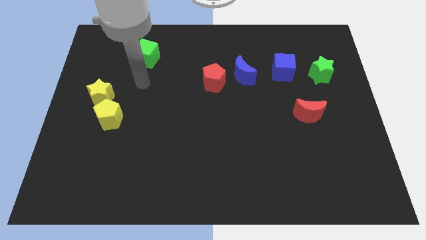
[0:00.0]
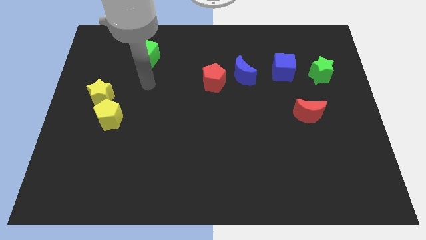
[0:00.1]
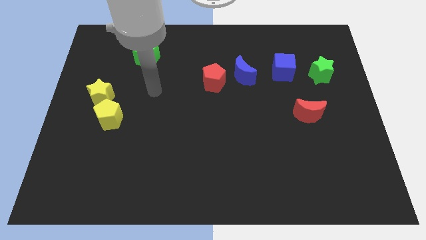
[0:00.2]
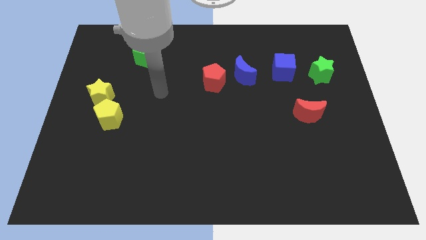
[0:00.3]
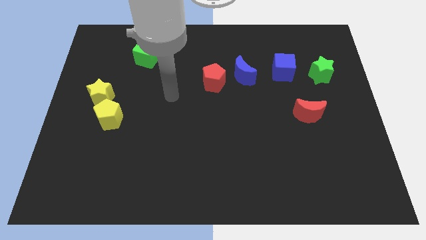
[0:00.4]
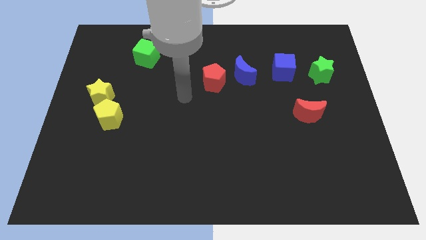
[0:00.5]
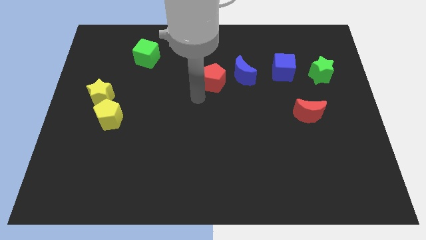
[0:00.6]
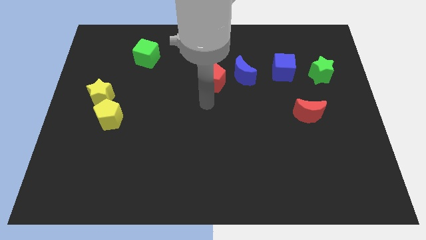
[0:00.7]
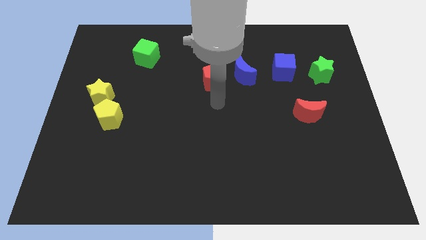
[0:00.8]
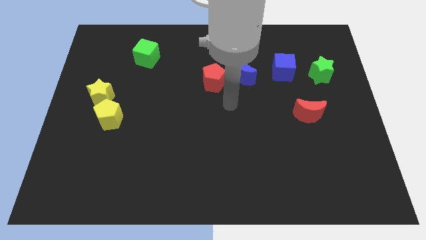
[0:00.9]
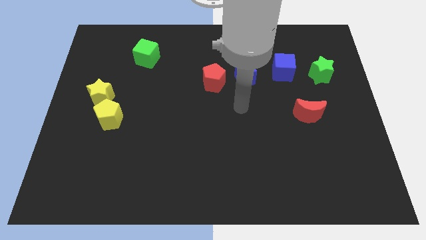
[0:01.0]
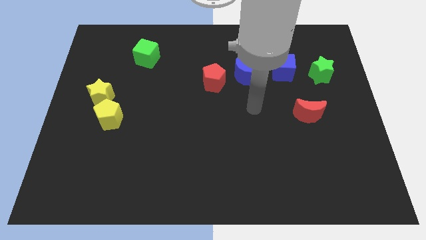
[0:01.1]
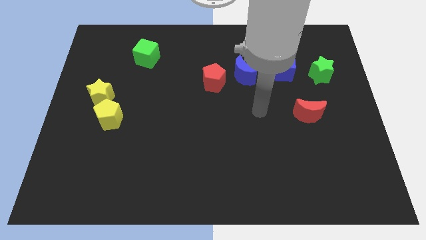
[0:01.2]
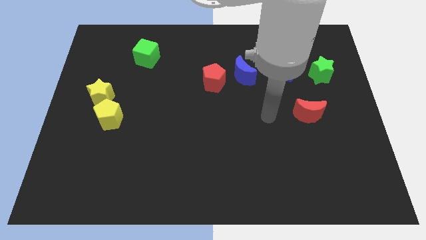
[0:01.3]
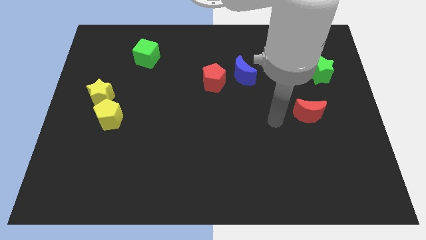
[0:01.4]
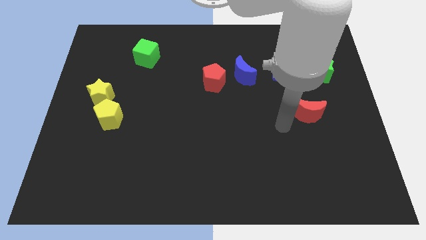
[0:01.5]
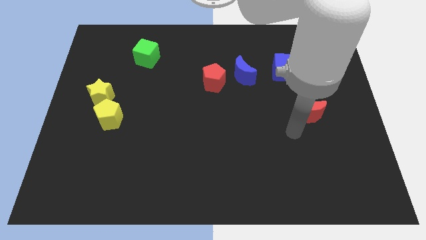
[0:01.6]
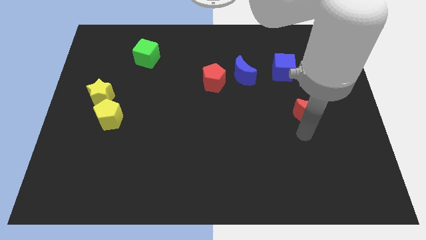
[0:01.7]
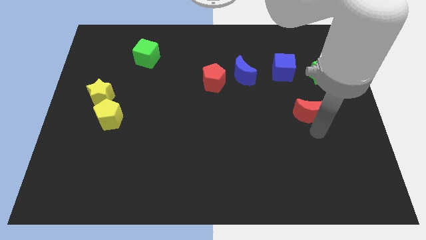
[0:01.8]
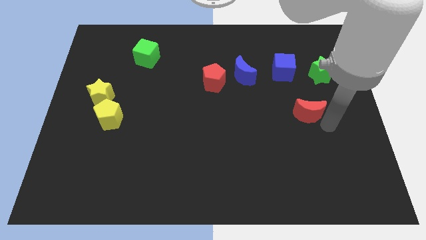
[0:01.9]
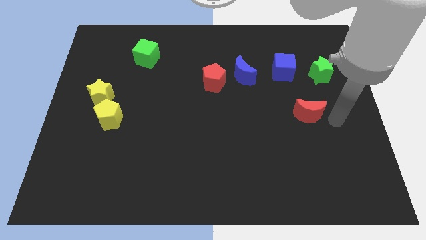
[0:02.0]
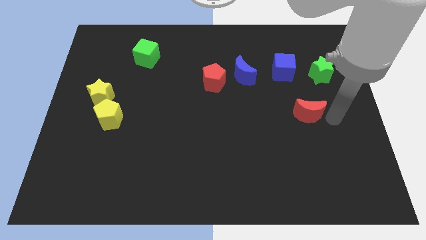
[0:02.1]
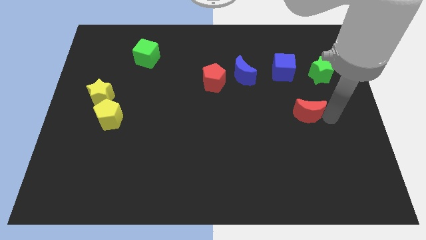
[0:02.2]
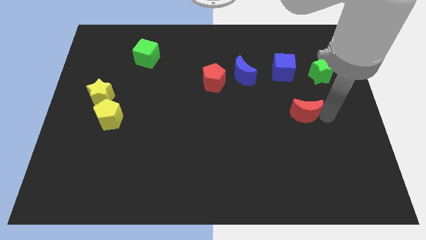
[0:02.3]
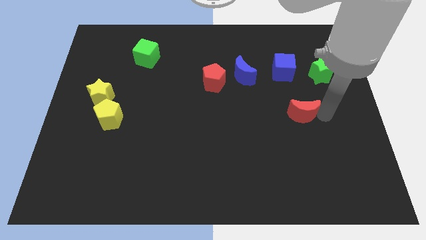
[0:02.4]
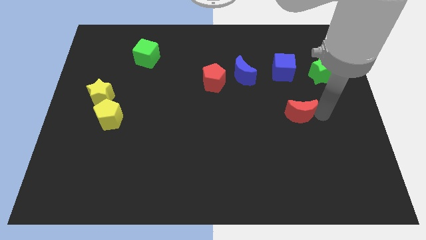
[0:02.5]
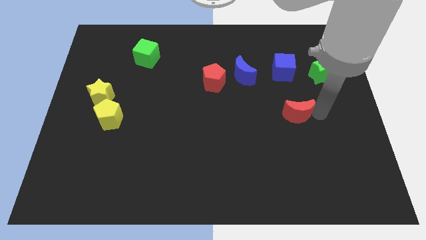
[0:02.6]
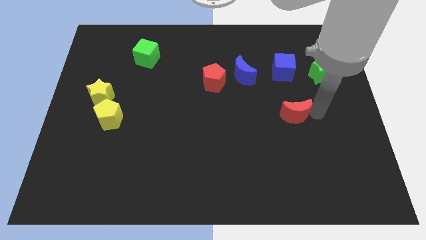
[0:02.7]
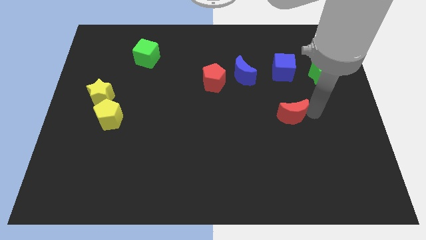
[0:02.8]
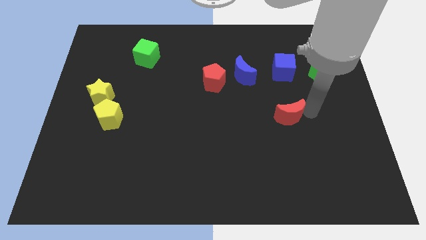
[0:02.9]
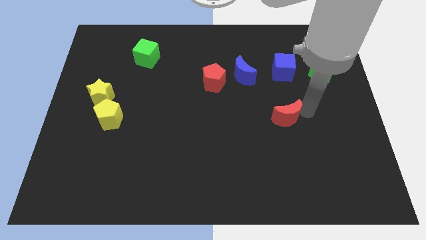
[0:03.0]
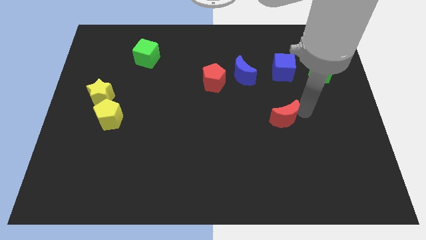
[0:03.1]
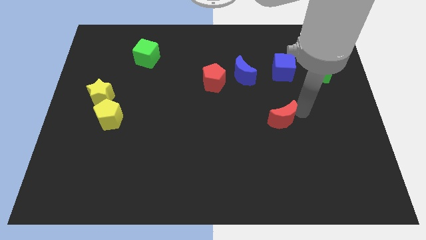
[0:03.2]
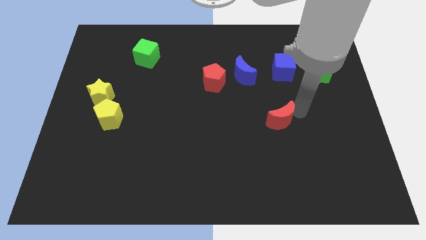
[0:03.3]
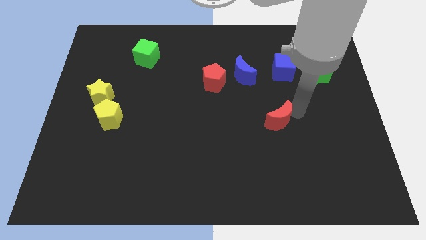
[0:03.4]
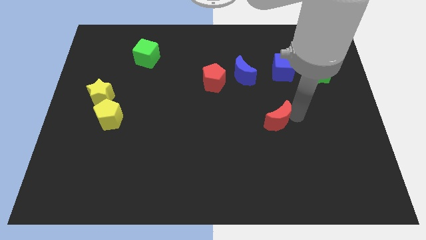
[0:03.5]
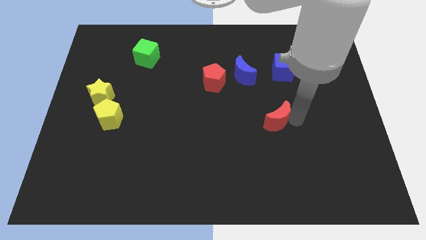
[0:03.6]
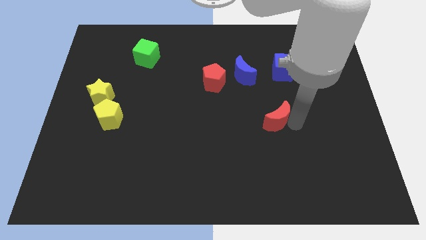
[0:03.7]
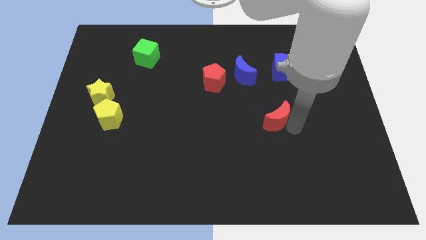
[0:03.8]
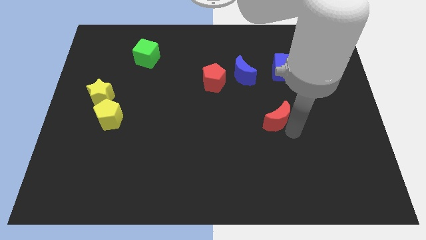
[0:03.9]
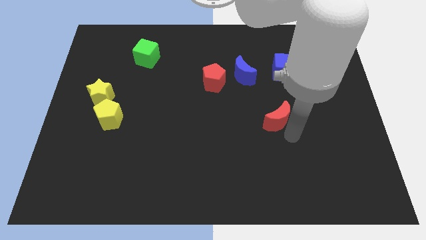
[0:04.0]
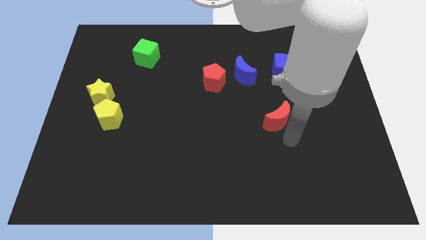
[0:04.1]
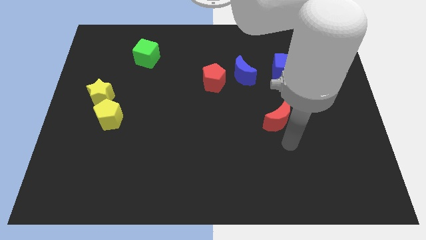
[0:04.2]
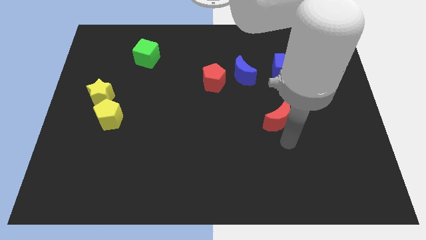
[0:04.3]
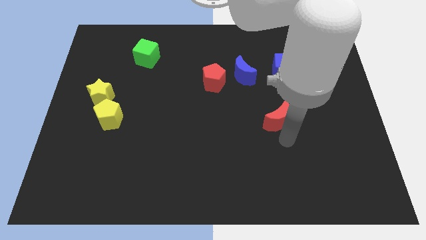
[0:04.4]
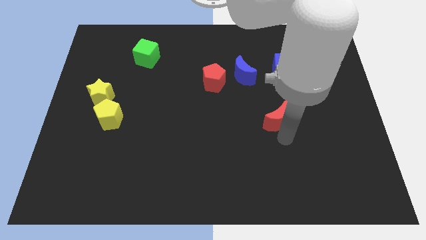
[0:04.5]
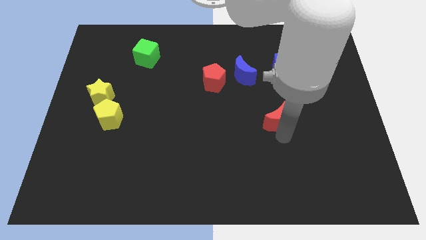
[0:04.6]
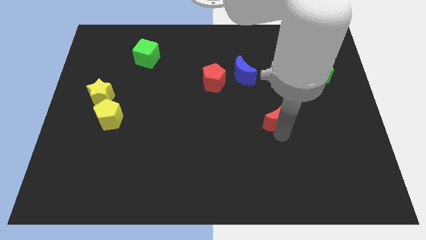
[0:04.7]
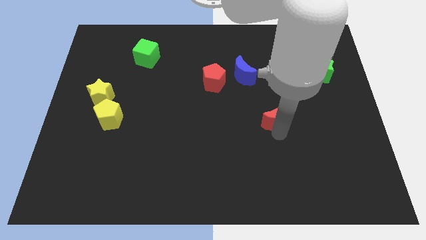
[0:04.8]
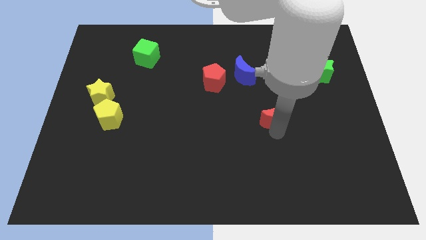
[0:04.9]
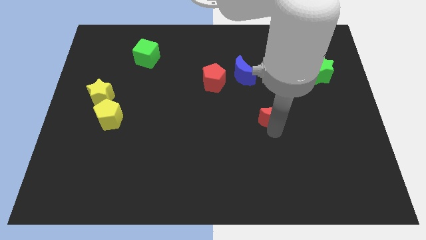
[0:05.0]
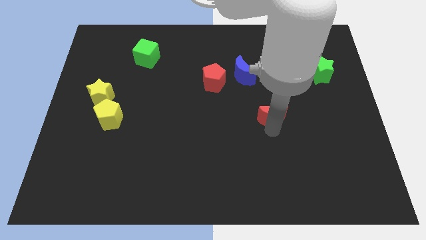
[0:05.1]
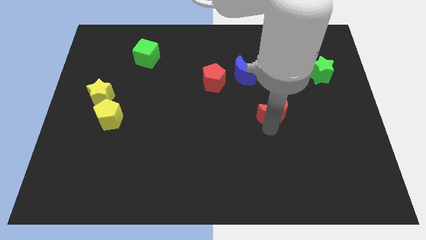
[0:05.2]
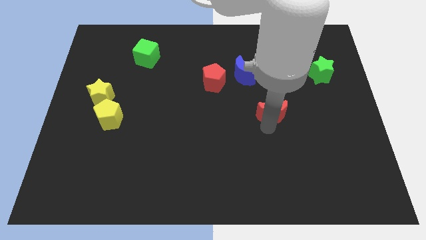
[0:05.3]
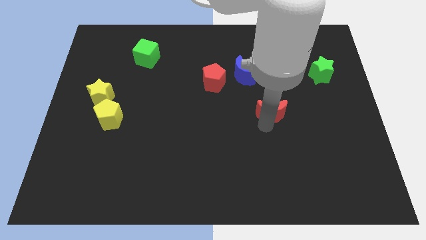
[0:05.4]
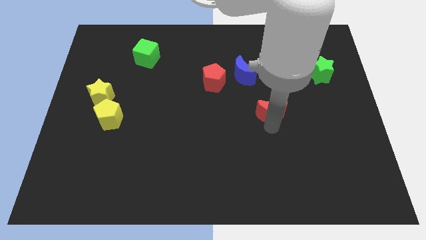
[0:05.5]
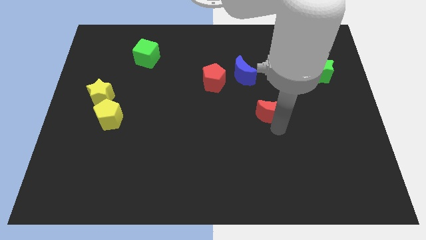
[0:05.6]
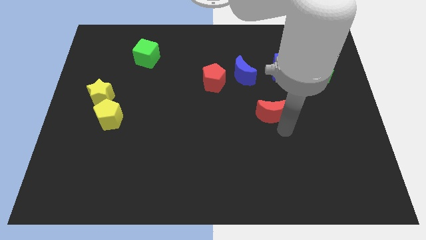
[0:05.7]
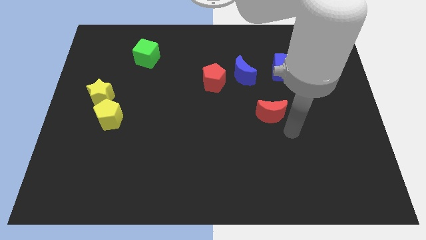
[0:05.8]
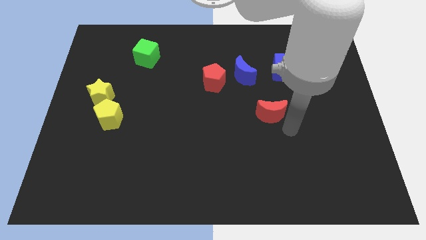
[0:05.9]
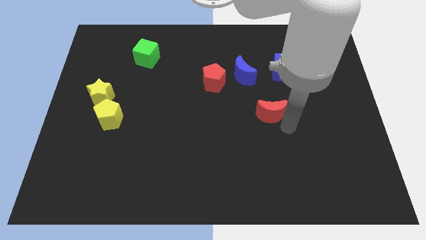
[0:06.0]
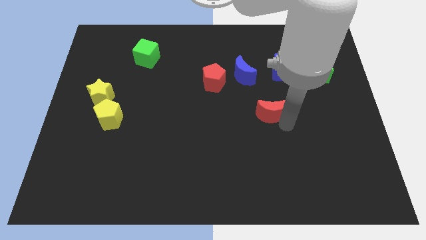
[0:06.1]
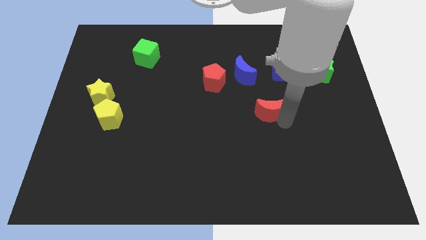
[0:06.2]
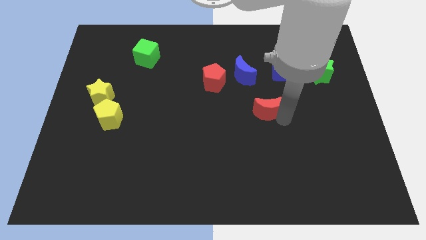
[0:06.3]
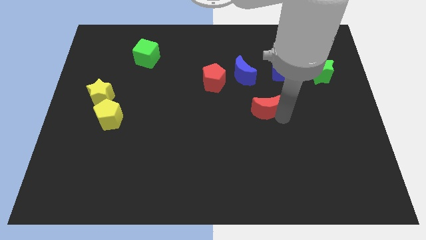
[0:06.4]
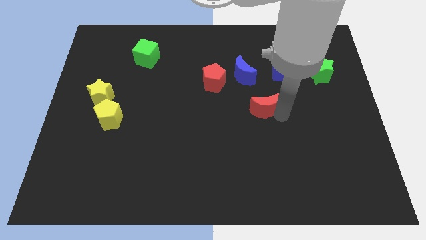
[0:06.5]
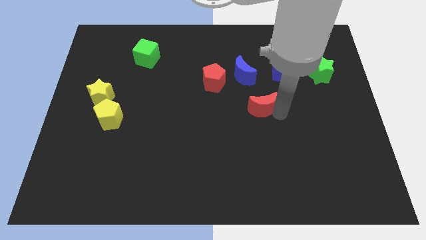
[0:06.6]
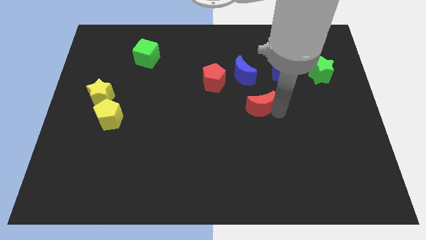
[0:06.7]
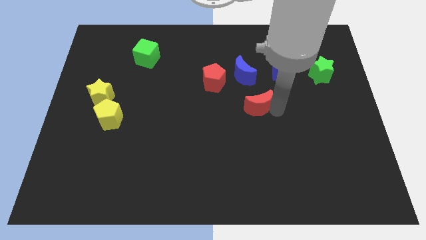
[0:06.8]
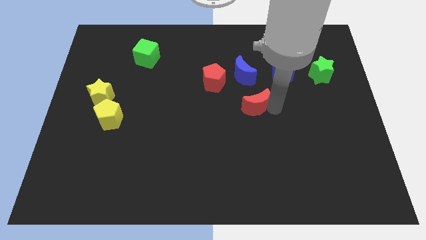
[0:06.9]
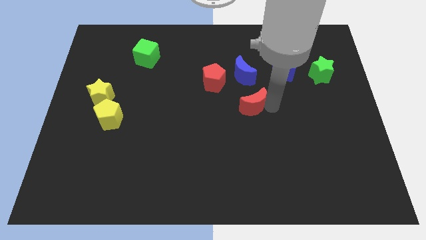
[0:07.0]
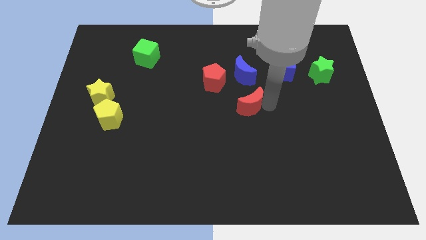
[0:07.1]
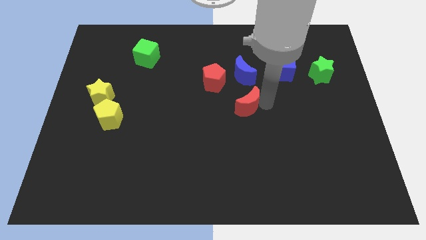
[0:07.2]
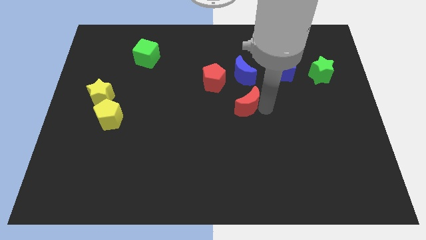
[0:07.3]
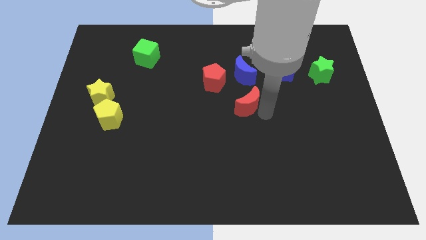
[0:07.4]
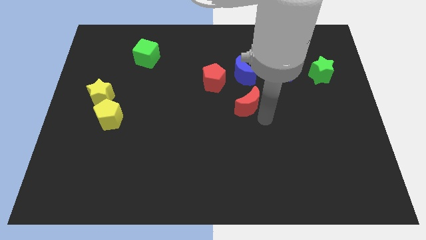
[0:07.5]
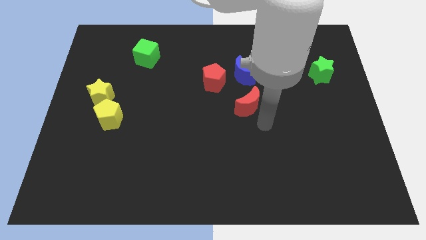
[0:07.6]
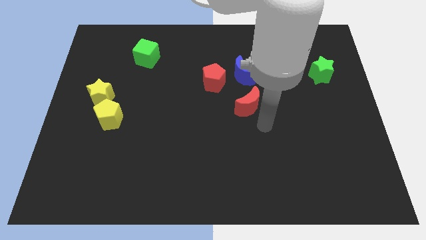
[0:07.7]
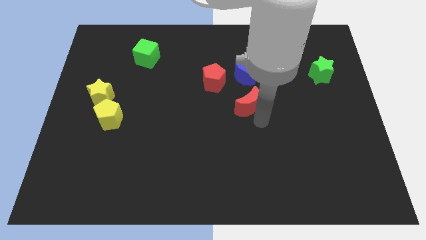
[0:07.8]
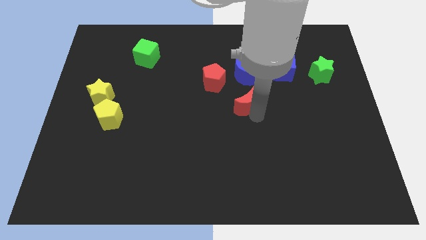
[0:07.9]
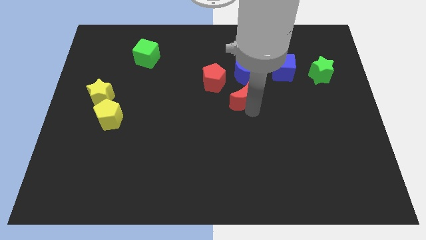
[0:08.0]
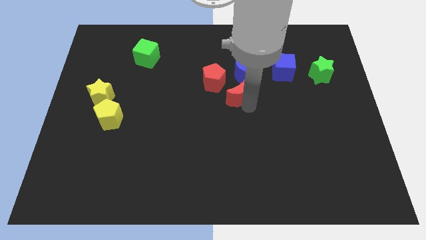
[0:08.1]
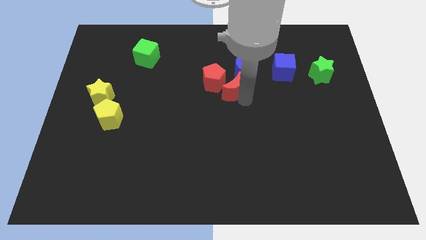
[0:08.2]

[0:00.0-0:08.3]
move the red moon close to the red pentagon
